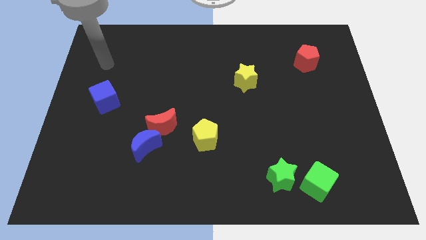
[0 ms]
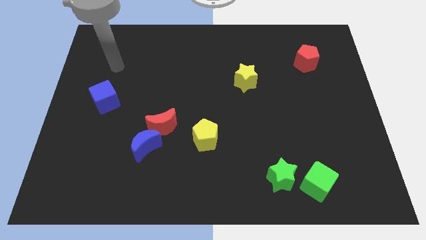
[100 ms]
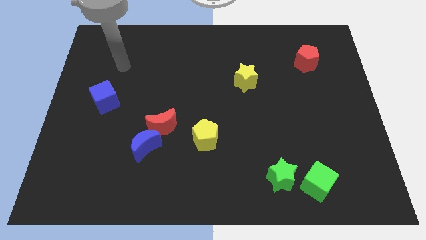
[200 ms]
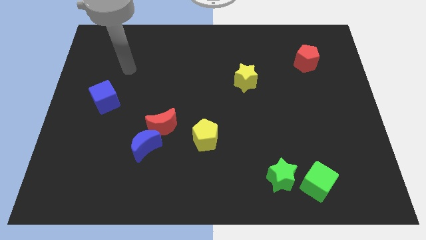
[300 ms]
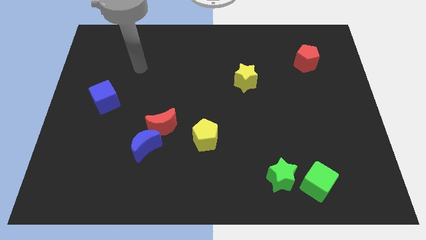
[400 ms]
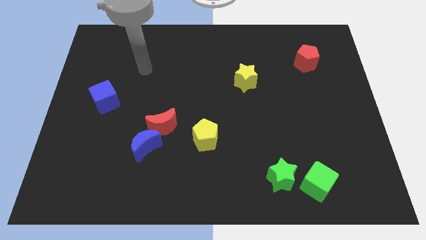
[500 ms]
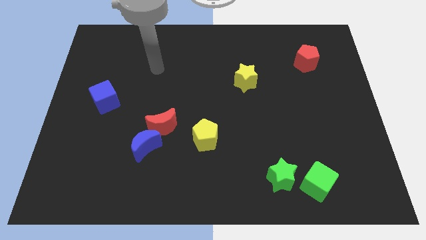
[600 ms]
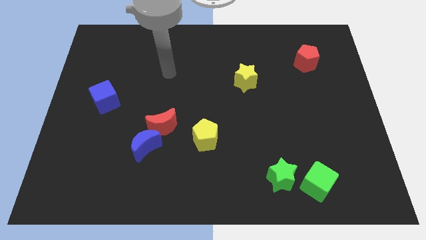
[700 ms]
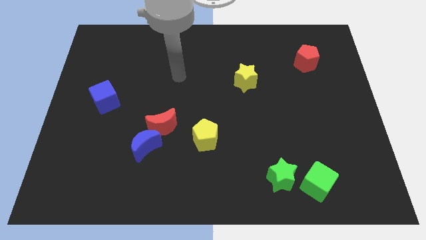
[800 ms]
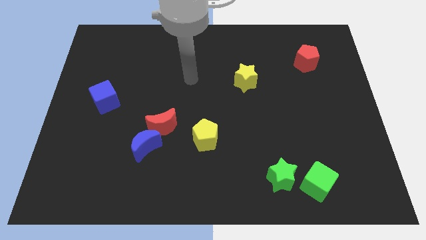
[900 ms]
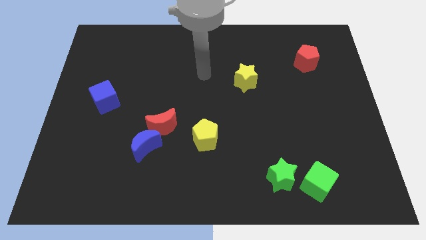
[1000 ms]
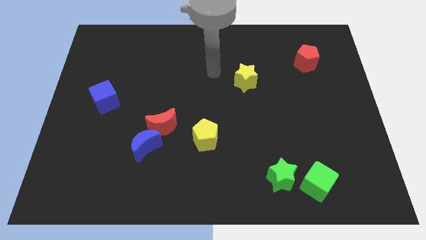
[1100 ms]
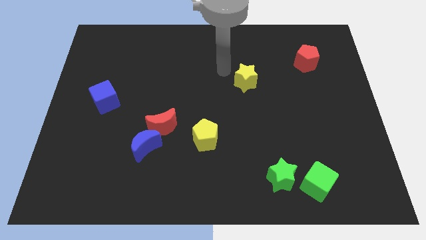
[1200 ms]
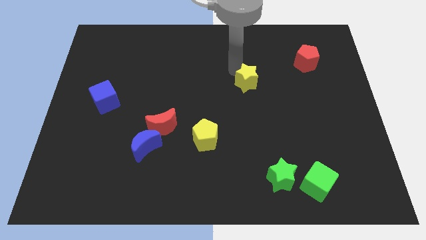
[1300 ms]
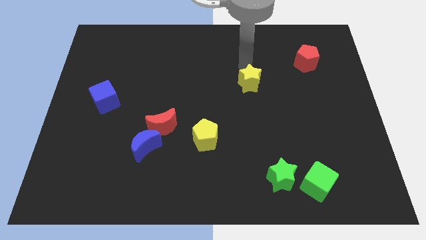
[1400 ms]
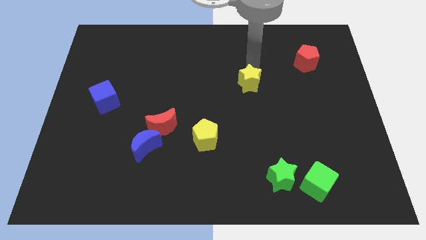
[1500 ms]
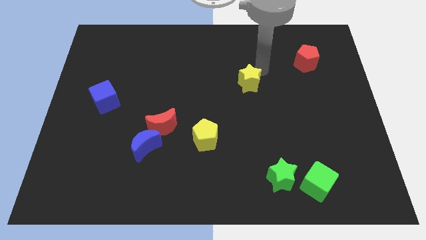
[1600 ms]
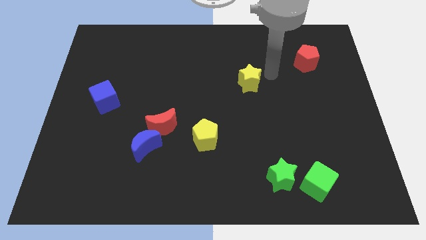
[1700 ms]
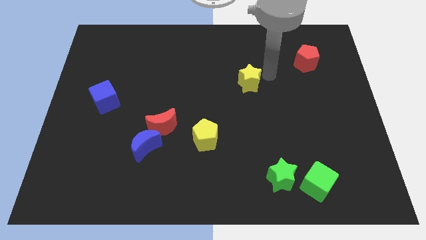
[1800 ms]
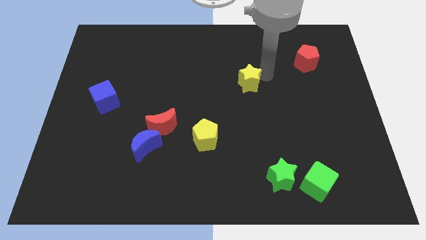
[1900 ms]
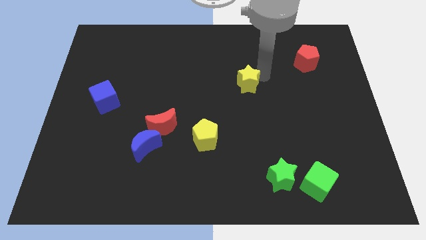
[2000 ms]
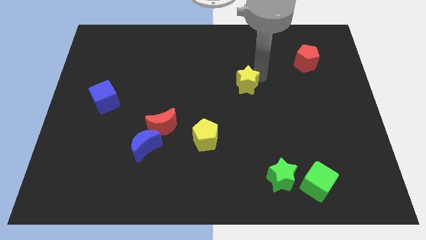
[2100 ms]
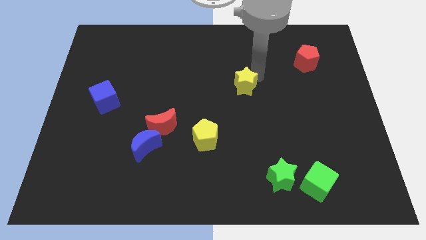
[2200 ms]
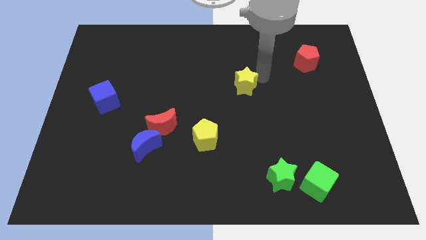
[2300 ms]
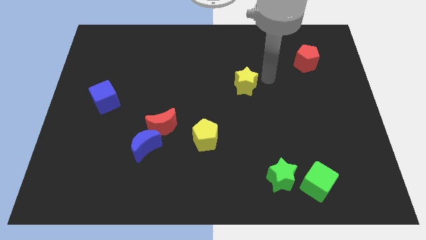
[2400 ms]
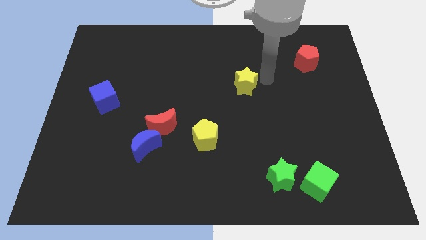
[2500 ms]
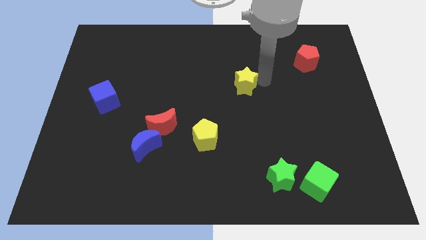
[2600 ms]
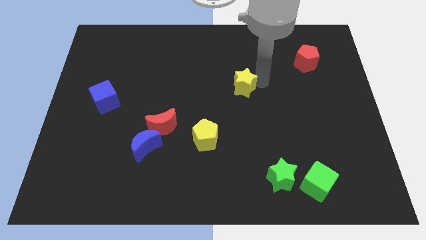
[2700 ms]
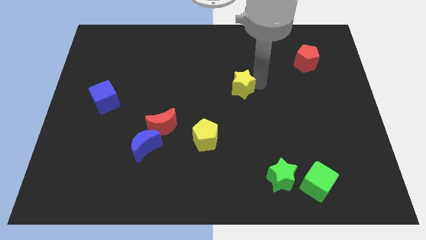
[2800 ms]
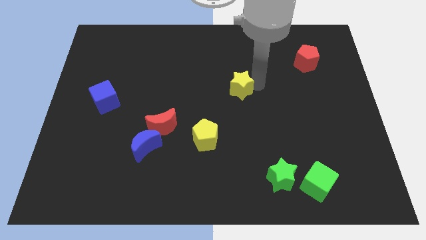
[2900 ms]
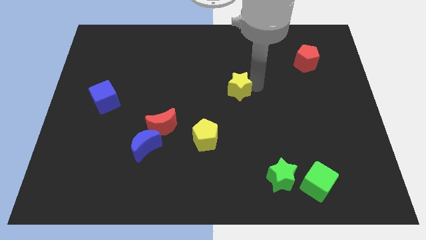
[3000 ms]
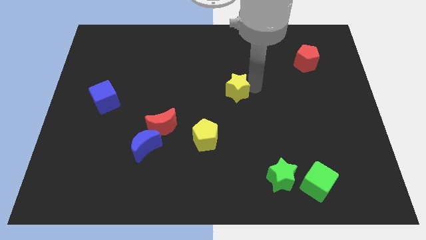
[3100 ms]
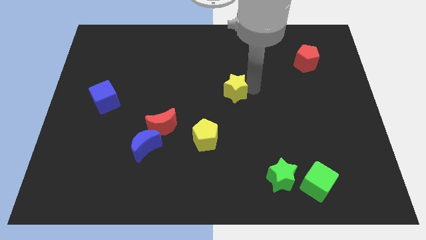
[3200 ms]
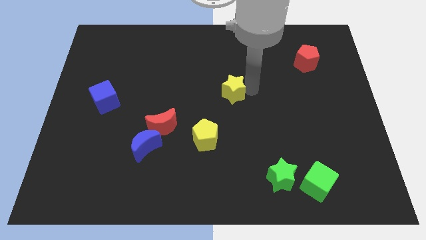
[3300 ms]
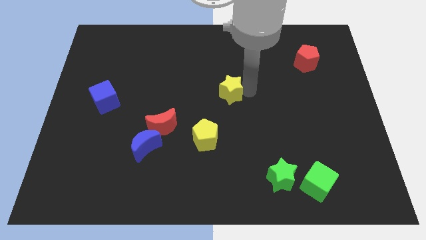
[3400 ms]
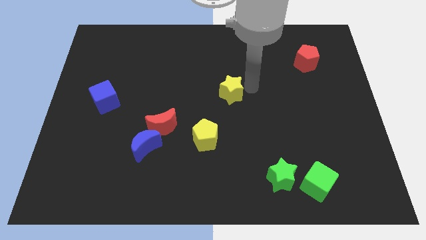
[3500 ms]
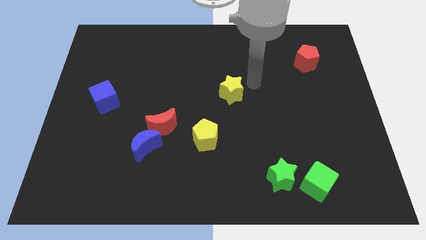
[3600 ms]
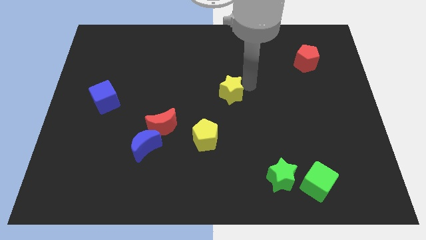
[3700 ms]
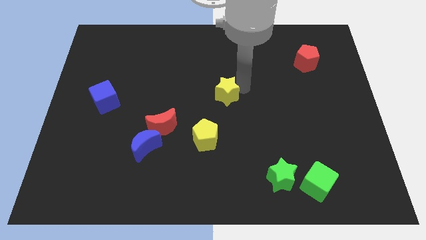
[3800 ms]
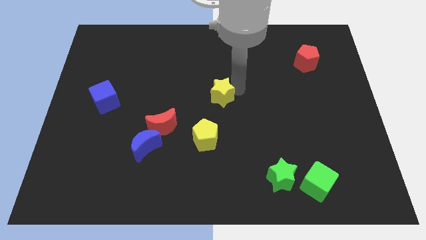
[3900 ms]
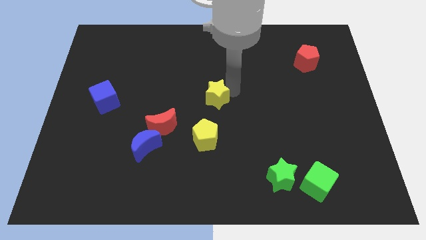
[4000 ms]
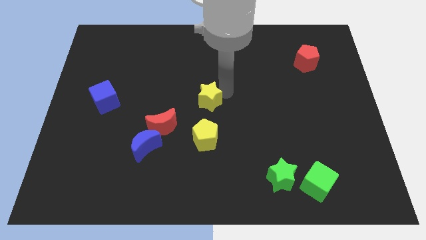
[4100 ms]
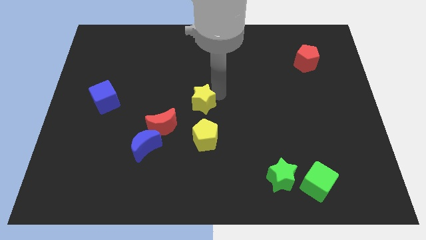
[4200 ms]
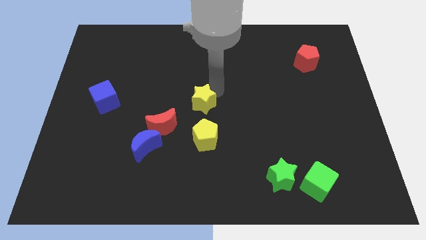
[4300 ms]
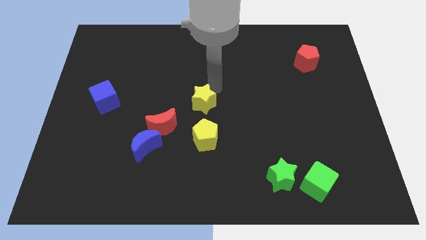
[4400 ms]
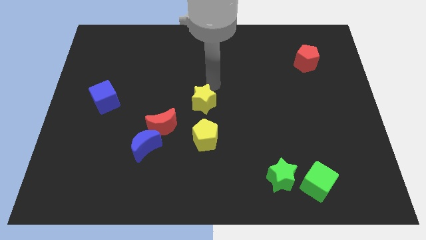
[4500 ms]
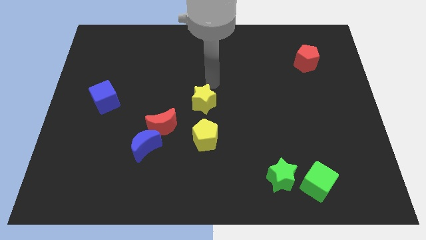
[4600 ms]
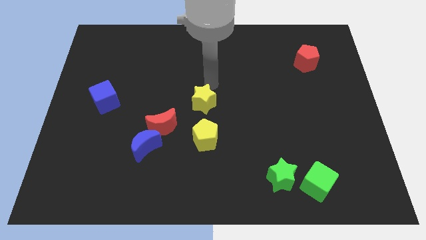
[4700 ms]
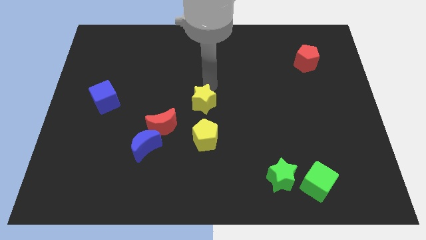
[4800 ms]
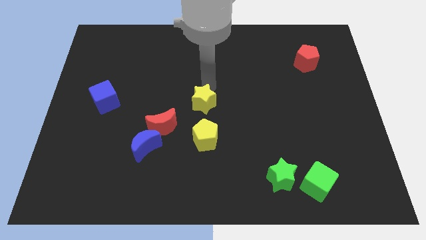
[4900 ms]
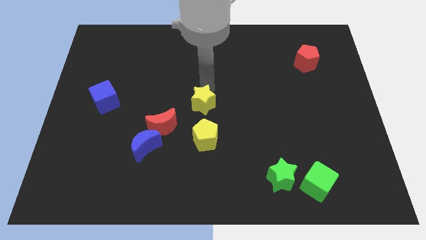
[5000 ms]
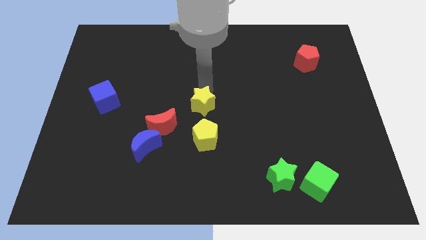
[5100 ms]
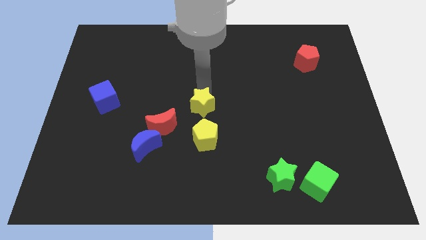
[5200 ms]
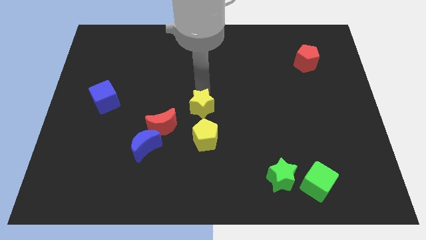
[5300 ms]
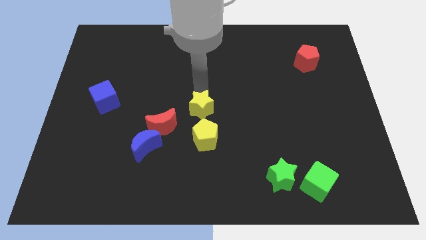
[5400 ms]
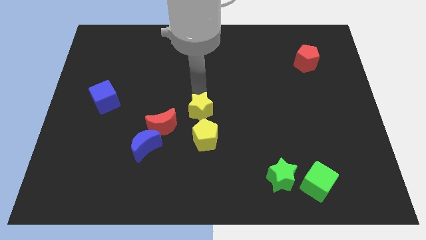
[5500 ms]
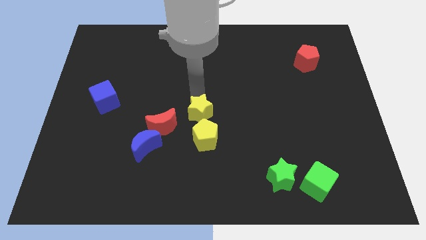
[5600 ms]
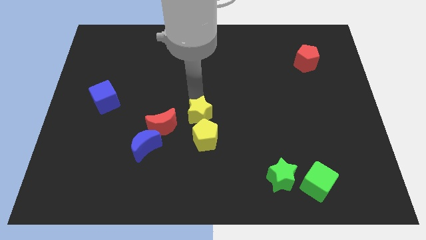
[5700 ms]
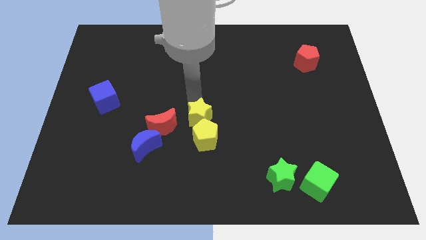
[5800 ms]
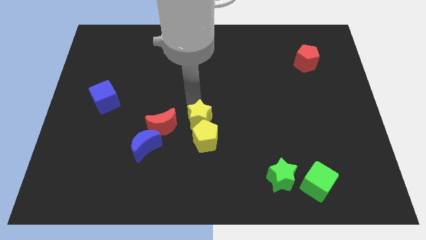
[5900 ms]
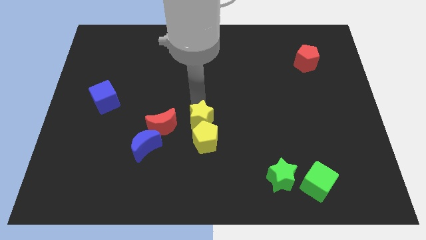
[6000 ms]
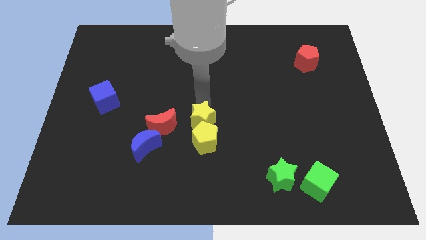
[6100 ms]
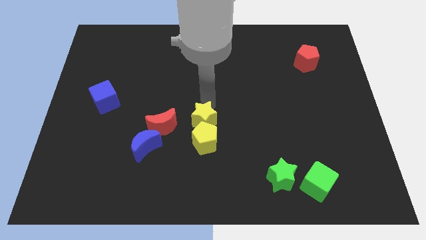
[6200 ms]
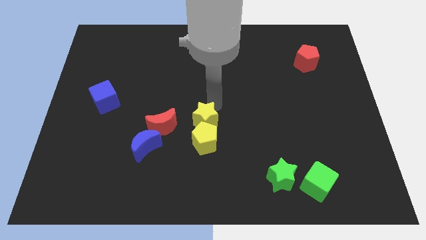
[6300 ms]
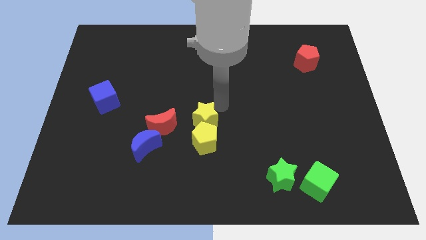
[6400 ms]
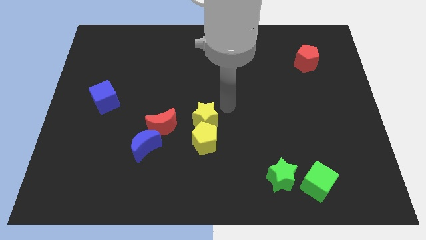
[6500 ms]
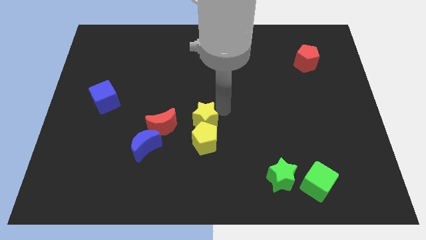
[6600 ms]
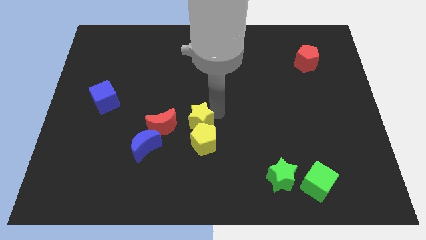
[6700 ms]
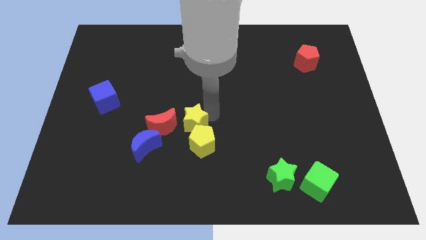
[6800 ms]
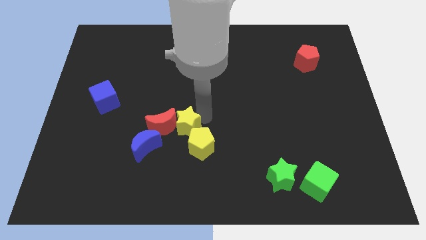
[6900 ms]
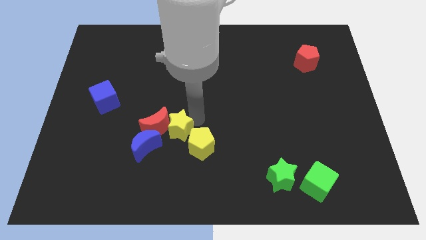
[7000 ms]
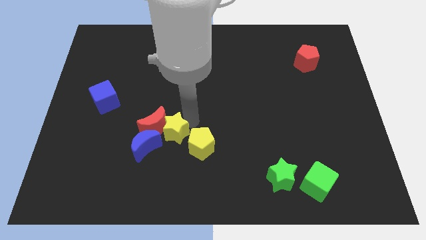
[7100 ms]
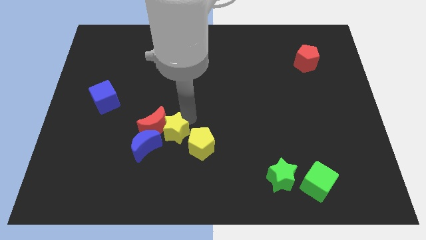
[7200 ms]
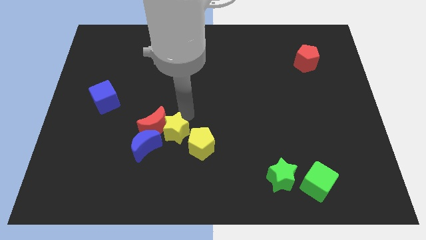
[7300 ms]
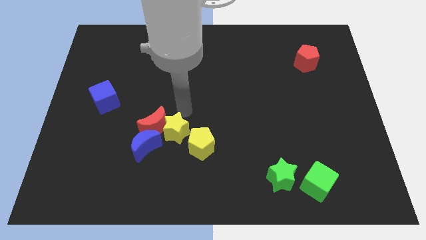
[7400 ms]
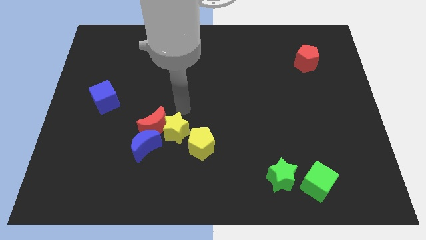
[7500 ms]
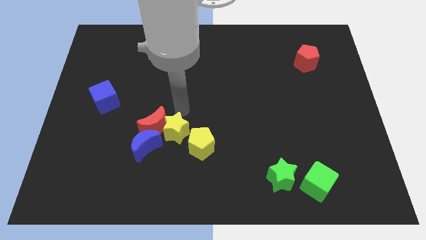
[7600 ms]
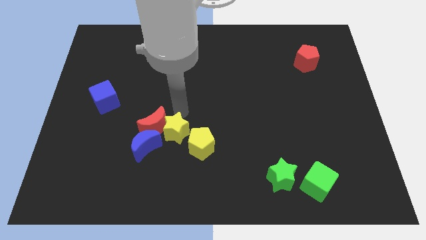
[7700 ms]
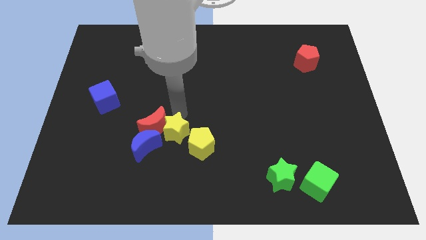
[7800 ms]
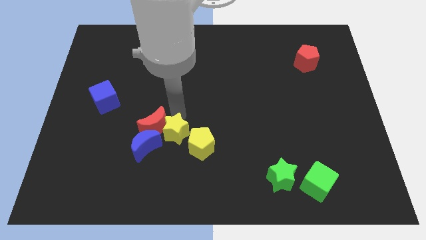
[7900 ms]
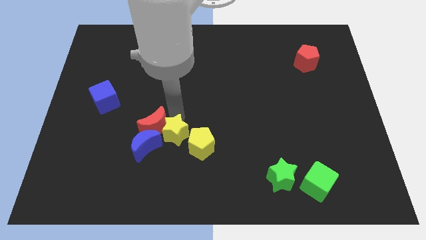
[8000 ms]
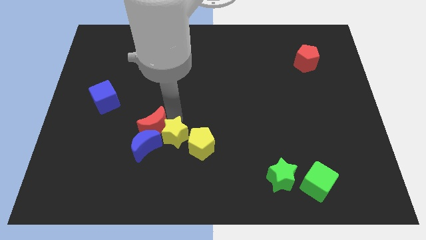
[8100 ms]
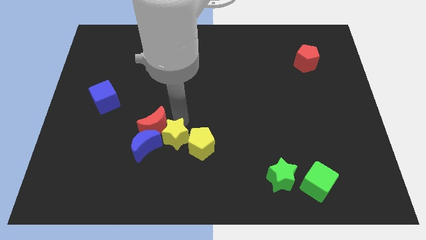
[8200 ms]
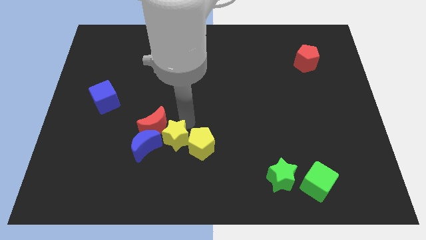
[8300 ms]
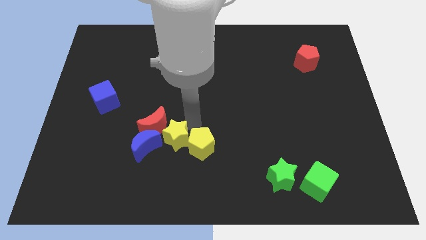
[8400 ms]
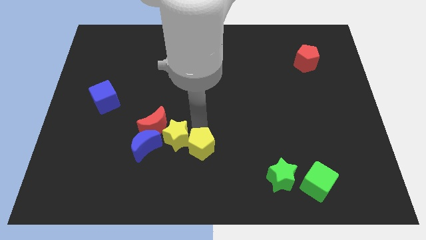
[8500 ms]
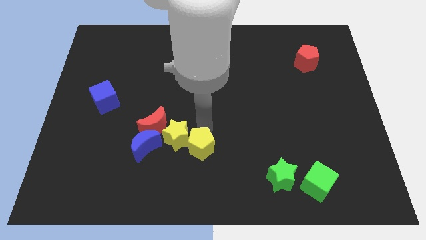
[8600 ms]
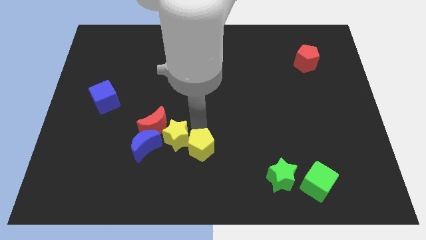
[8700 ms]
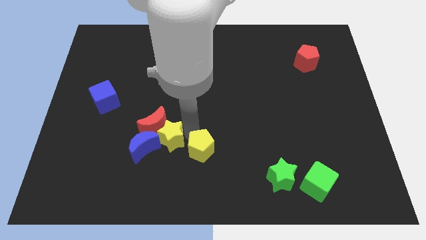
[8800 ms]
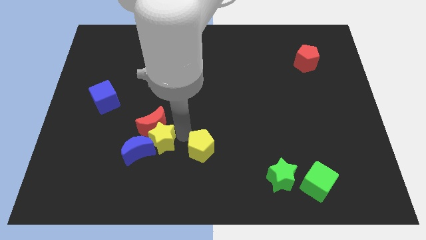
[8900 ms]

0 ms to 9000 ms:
move the yellow star to the blue moon
